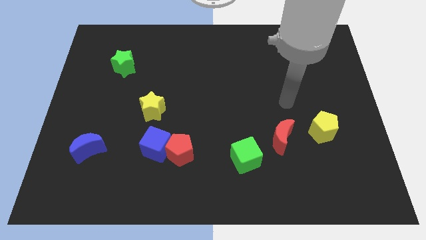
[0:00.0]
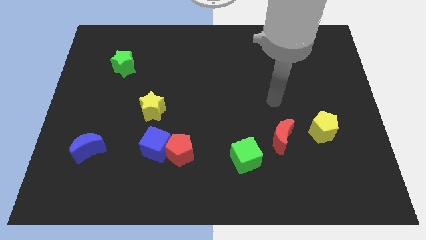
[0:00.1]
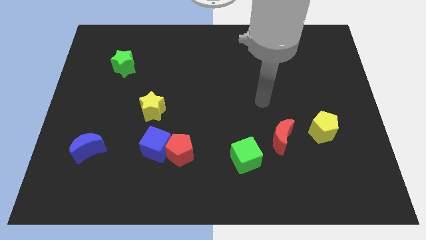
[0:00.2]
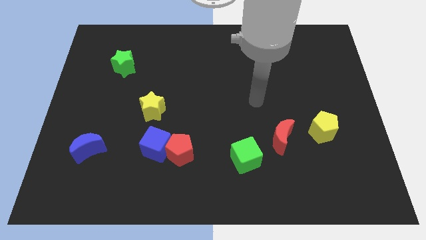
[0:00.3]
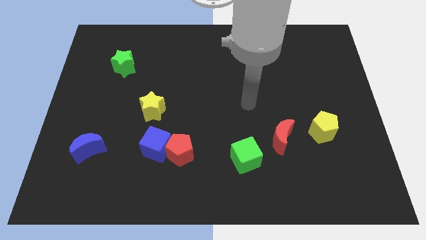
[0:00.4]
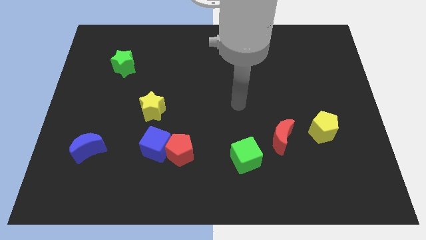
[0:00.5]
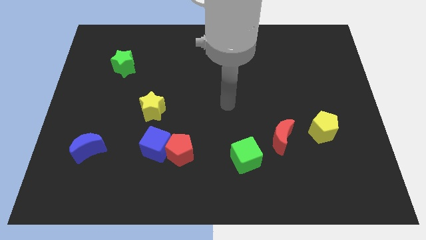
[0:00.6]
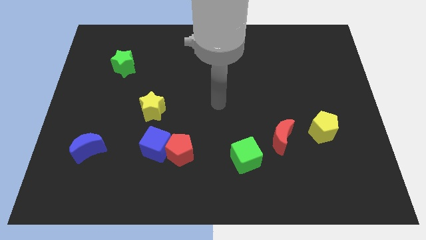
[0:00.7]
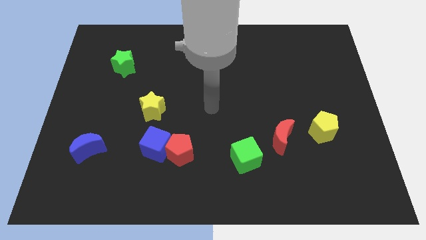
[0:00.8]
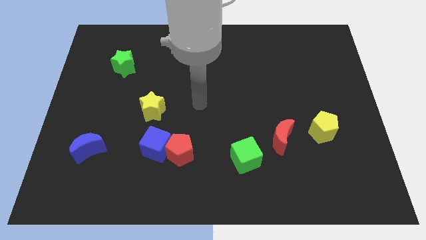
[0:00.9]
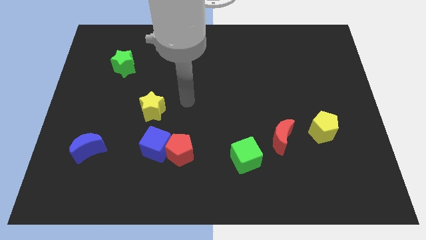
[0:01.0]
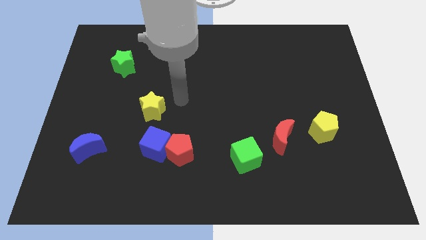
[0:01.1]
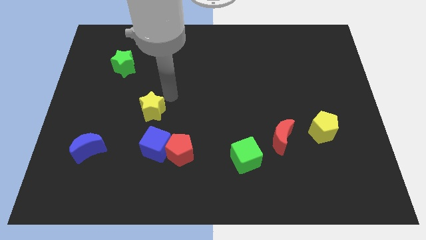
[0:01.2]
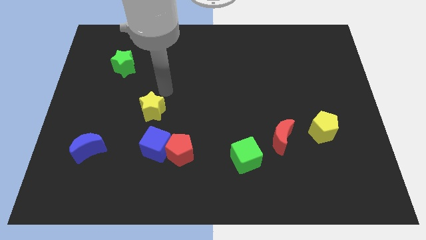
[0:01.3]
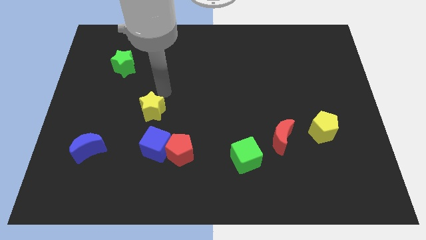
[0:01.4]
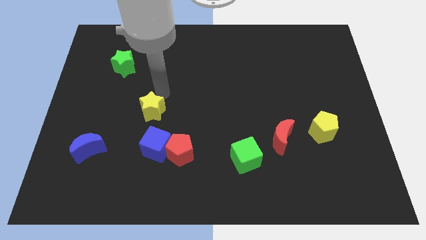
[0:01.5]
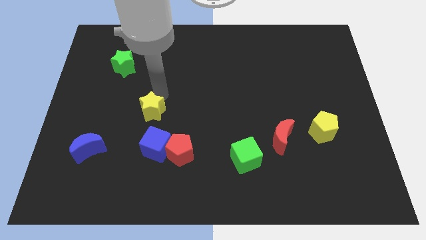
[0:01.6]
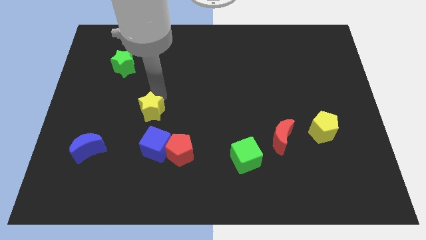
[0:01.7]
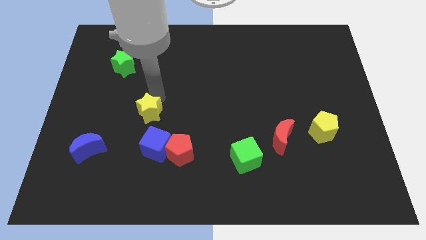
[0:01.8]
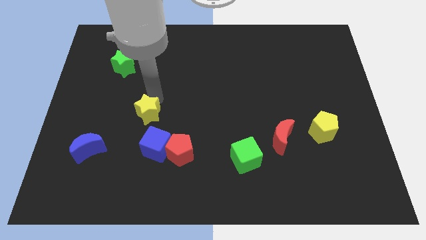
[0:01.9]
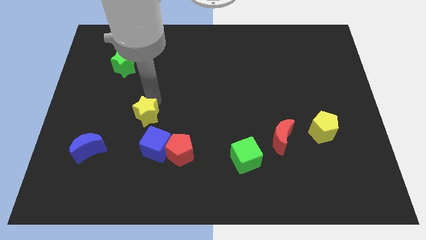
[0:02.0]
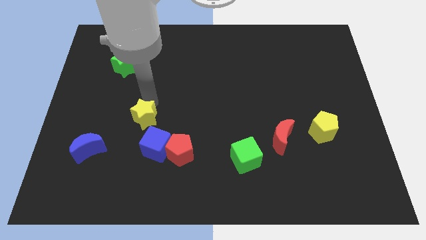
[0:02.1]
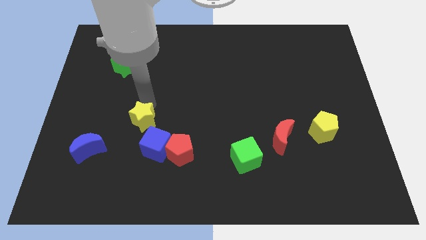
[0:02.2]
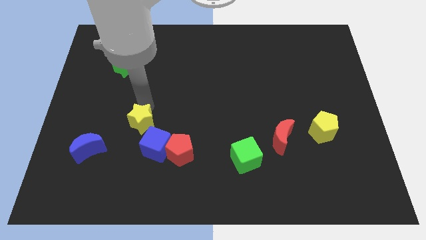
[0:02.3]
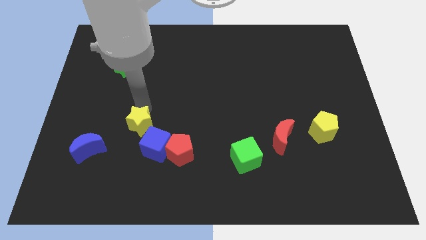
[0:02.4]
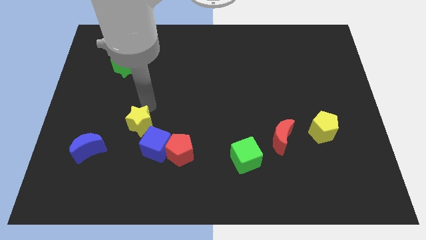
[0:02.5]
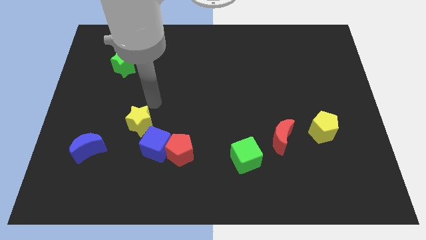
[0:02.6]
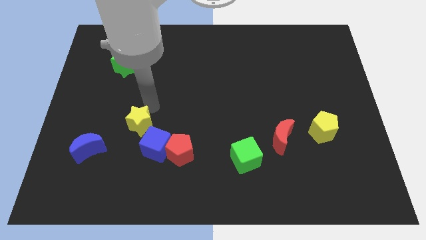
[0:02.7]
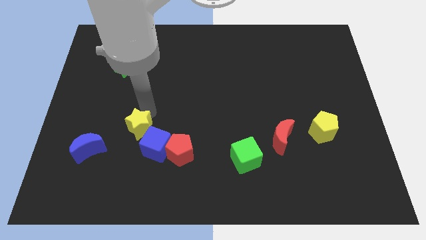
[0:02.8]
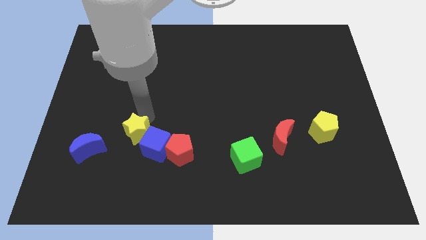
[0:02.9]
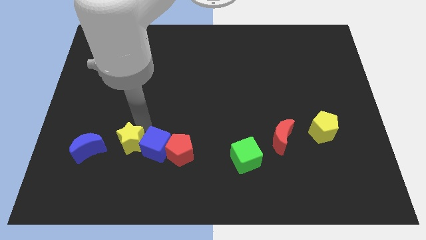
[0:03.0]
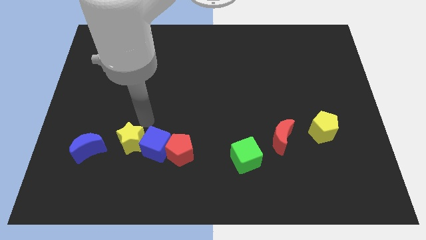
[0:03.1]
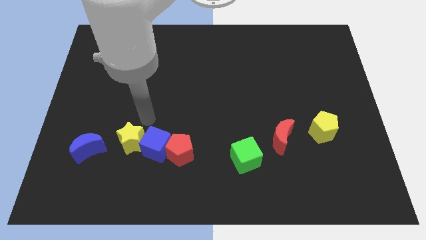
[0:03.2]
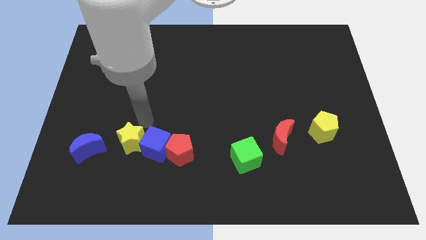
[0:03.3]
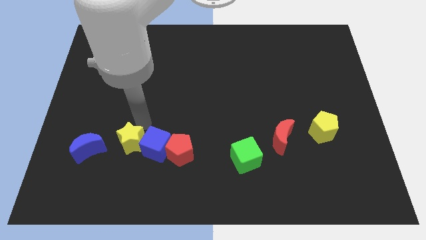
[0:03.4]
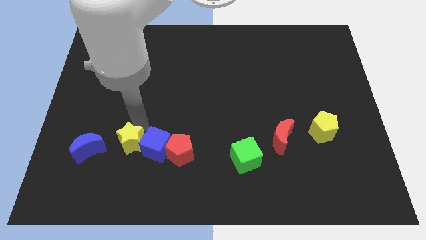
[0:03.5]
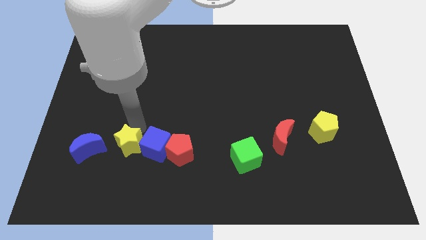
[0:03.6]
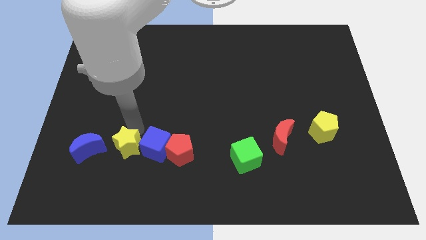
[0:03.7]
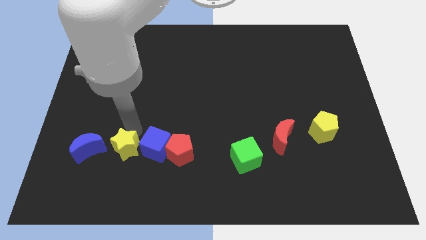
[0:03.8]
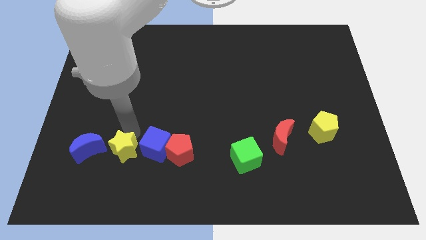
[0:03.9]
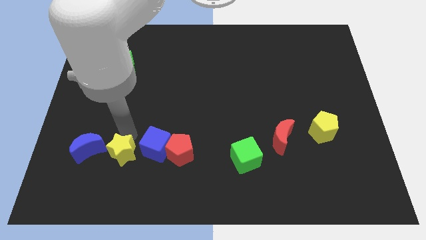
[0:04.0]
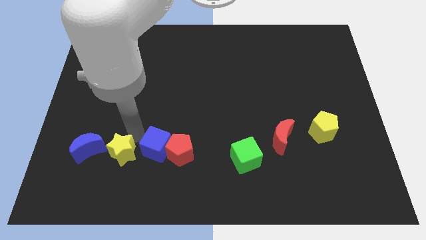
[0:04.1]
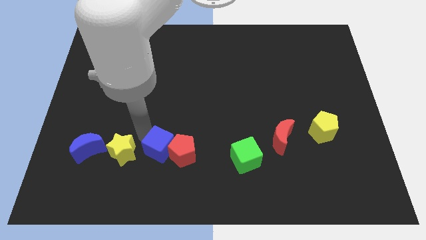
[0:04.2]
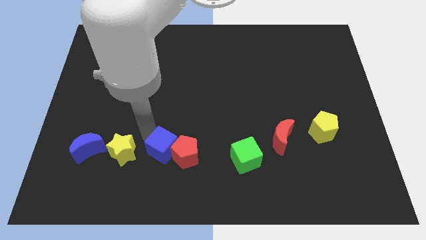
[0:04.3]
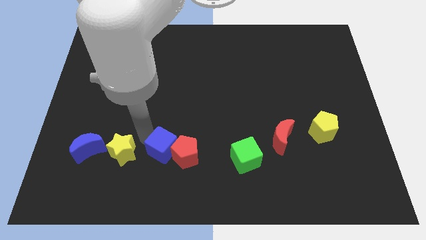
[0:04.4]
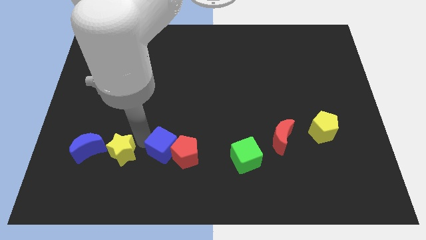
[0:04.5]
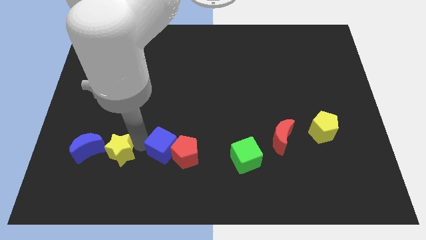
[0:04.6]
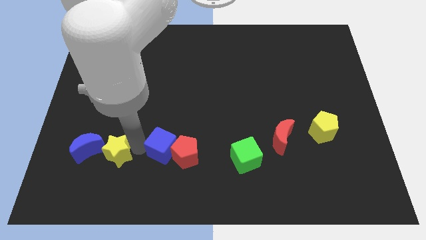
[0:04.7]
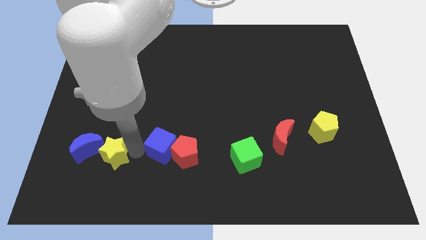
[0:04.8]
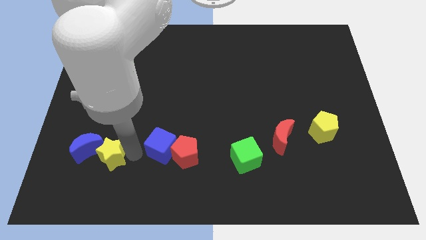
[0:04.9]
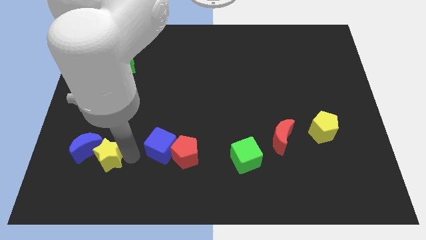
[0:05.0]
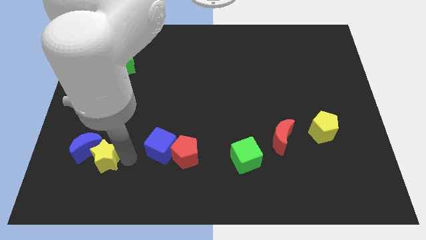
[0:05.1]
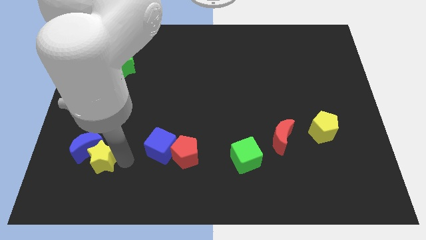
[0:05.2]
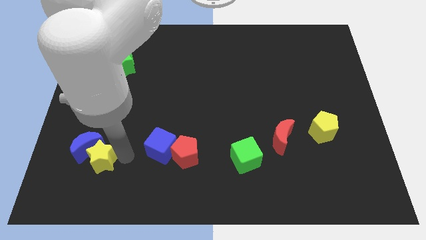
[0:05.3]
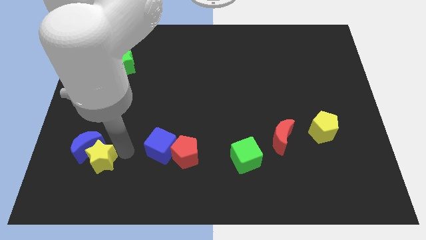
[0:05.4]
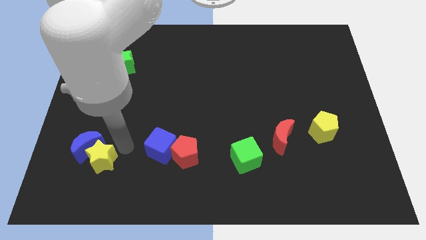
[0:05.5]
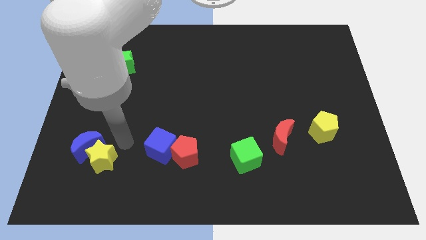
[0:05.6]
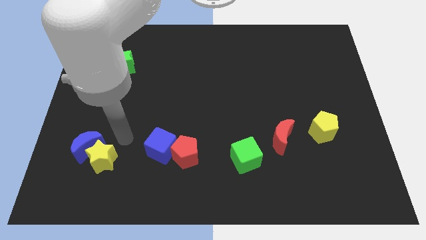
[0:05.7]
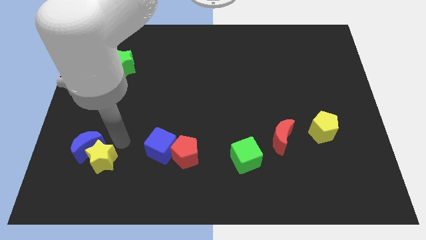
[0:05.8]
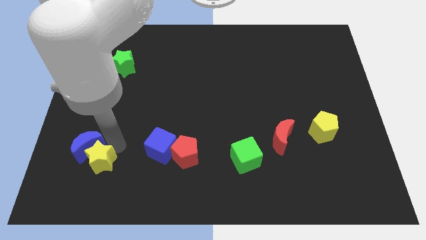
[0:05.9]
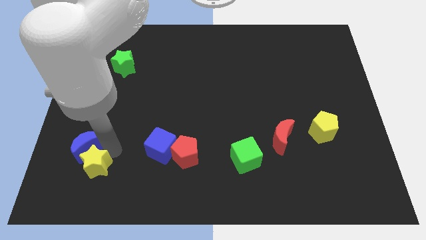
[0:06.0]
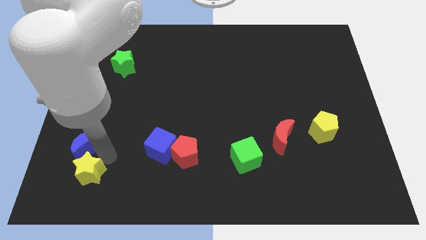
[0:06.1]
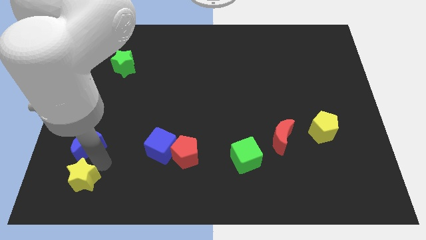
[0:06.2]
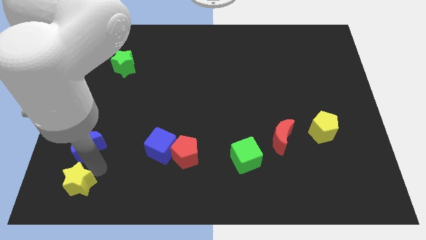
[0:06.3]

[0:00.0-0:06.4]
push the yellow star to the bottom left of the board
